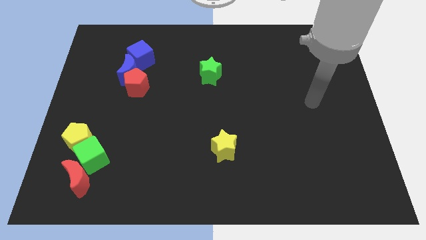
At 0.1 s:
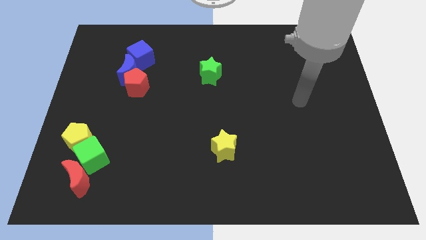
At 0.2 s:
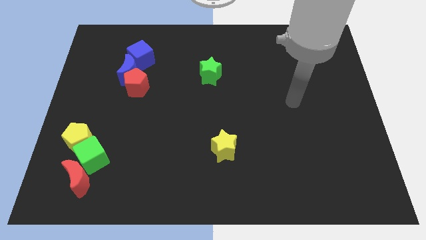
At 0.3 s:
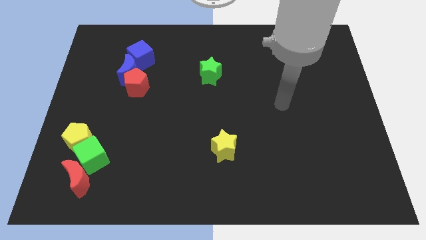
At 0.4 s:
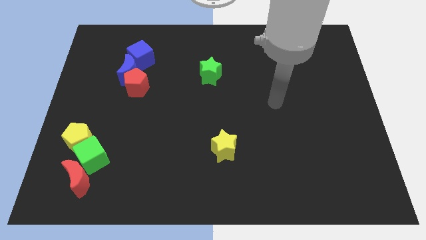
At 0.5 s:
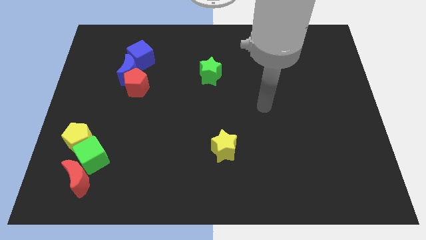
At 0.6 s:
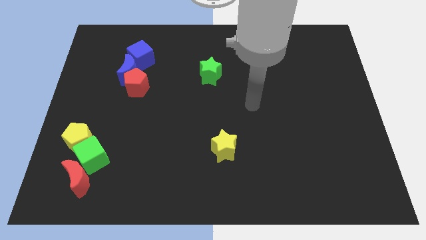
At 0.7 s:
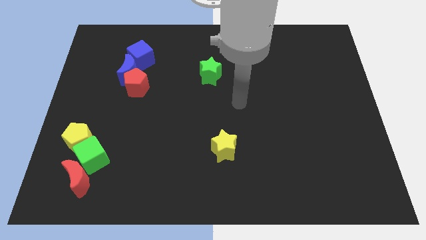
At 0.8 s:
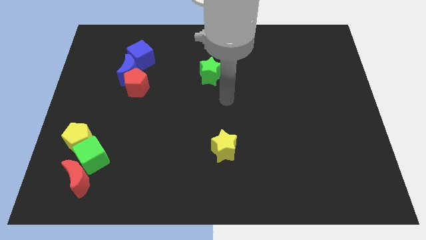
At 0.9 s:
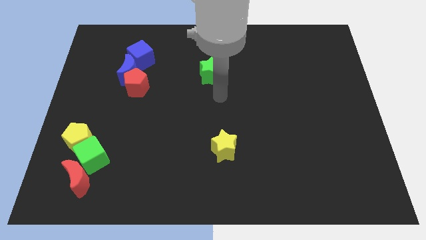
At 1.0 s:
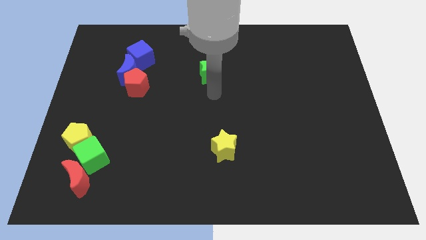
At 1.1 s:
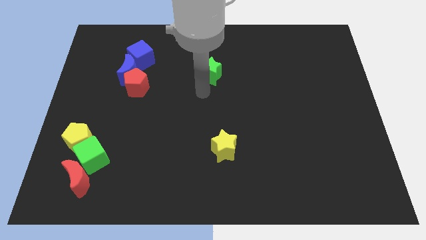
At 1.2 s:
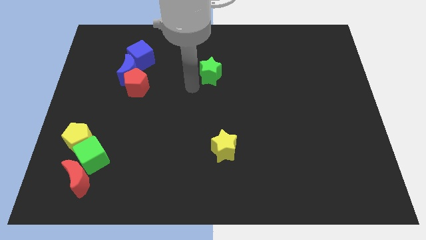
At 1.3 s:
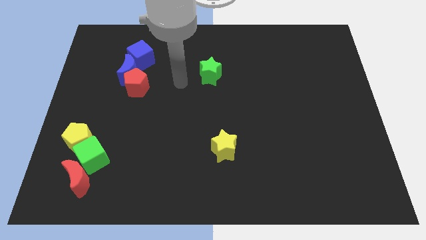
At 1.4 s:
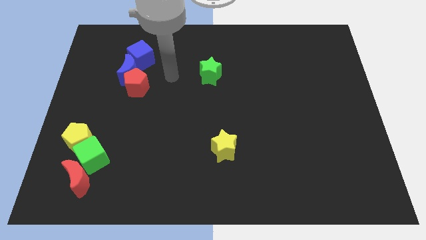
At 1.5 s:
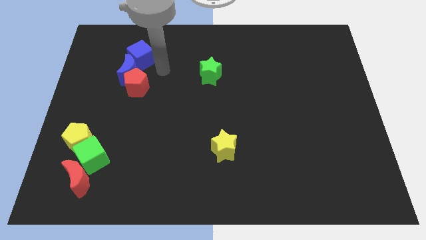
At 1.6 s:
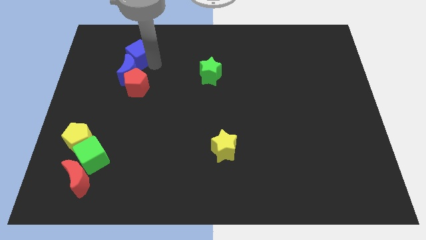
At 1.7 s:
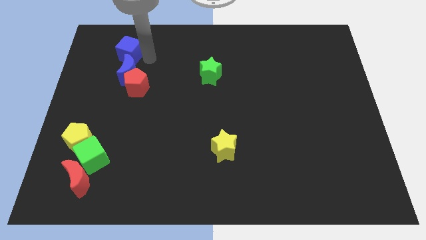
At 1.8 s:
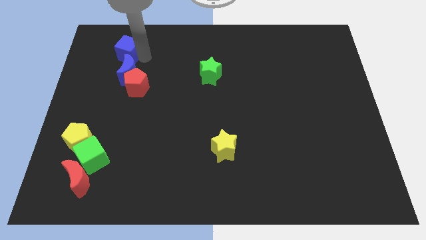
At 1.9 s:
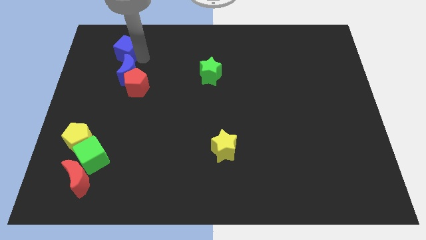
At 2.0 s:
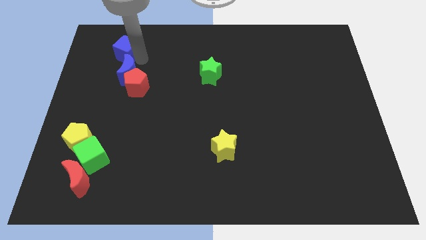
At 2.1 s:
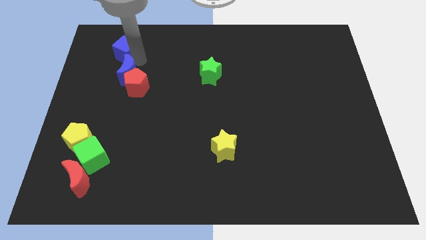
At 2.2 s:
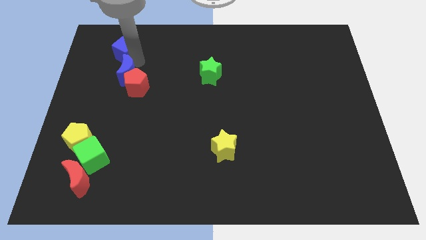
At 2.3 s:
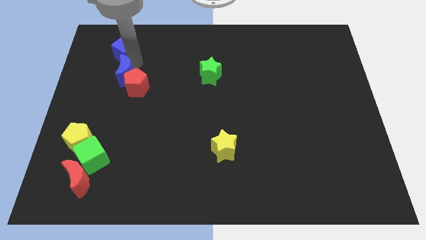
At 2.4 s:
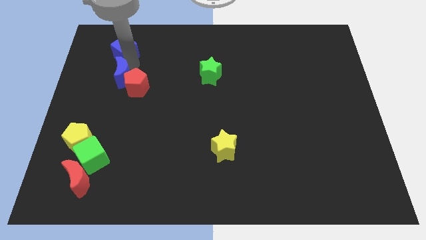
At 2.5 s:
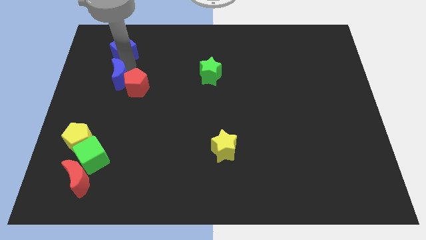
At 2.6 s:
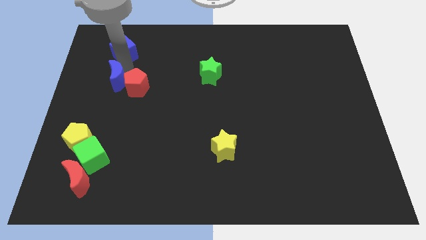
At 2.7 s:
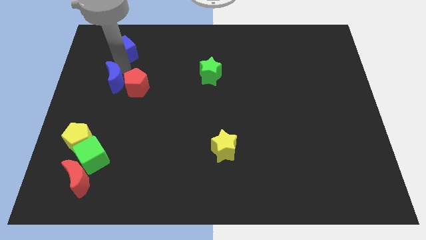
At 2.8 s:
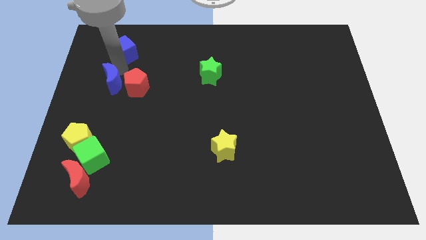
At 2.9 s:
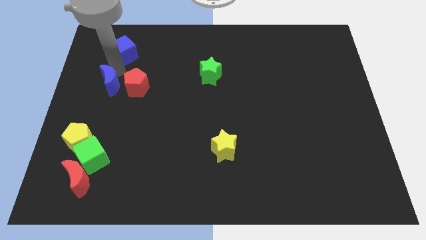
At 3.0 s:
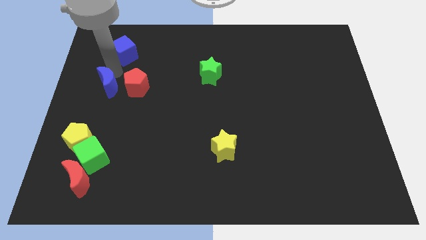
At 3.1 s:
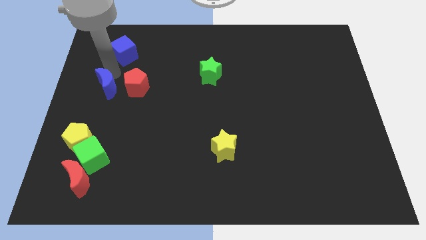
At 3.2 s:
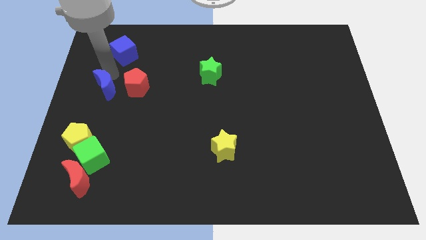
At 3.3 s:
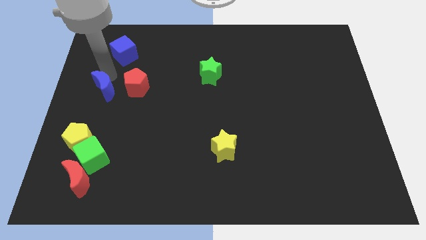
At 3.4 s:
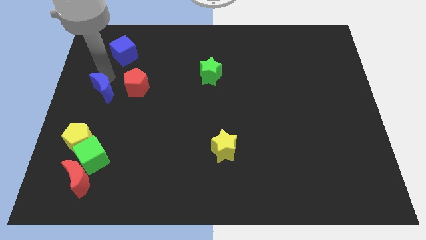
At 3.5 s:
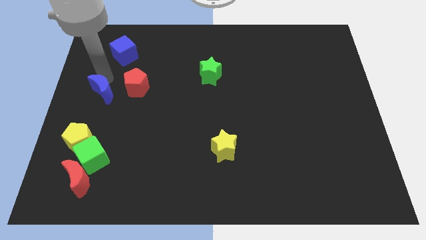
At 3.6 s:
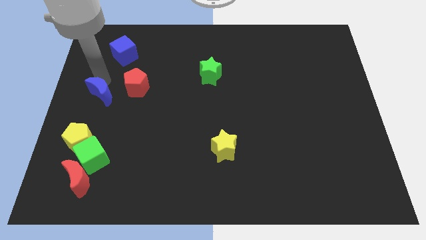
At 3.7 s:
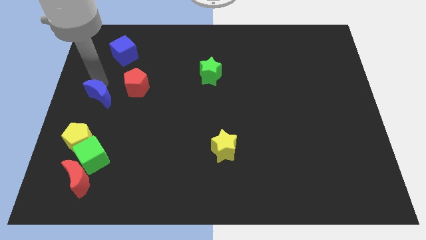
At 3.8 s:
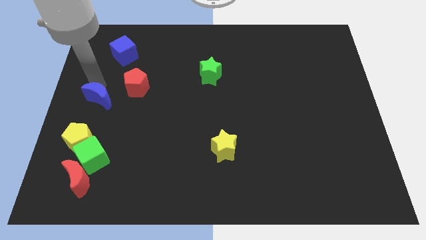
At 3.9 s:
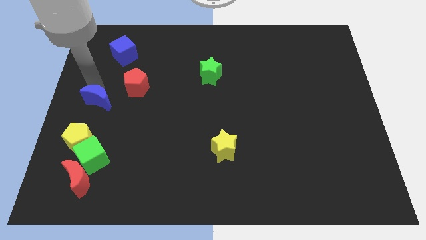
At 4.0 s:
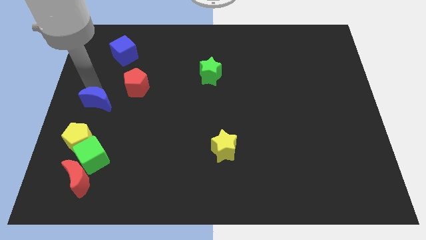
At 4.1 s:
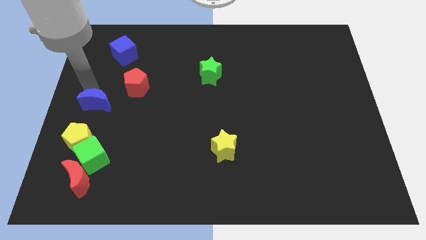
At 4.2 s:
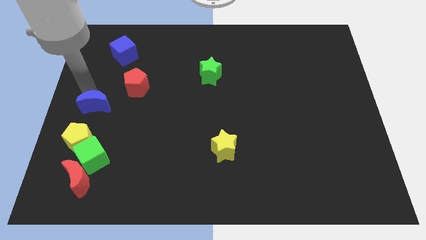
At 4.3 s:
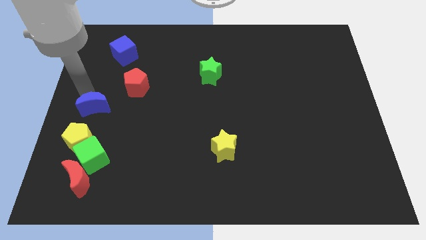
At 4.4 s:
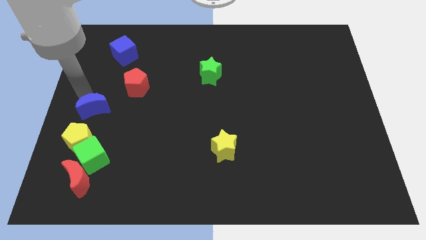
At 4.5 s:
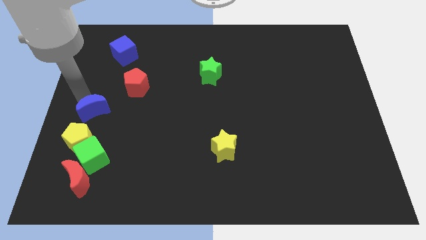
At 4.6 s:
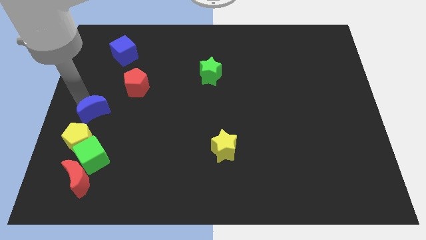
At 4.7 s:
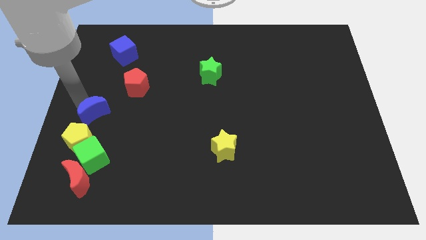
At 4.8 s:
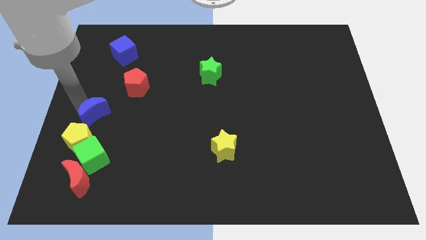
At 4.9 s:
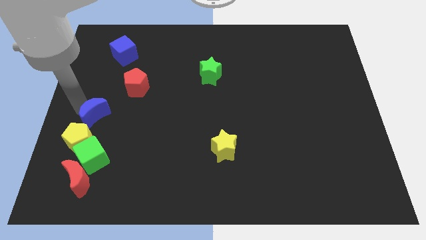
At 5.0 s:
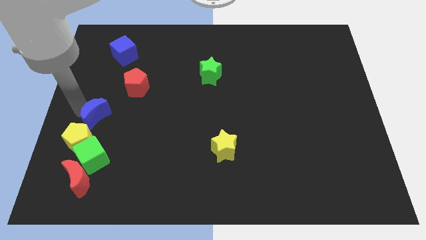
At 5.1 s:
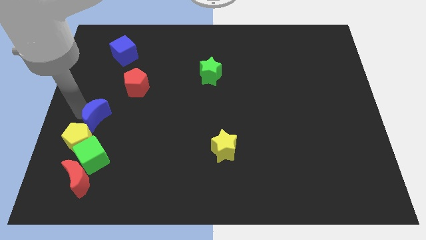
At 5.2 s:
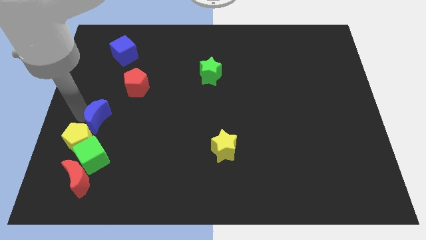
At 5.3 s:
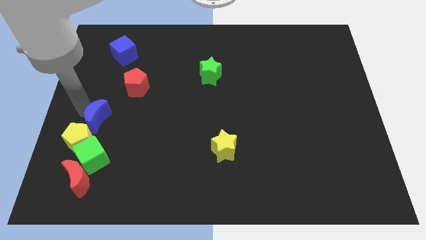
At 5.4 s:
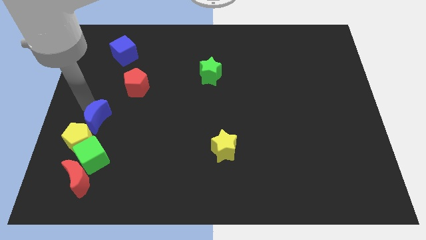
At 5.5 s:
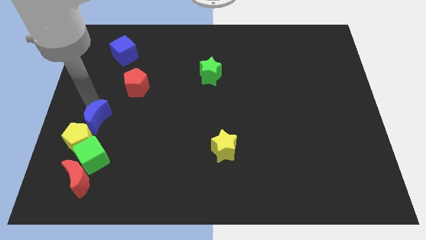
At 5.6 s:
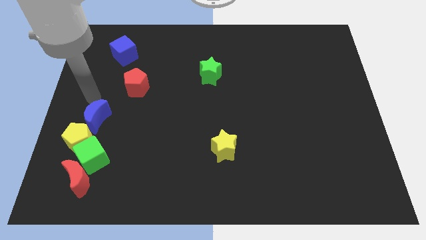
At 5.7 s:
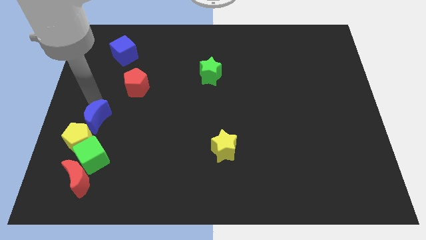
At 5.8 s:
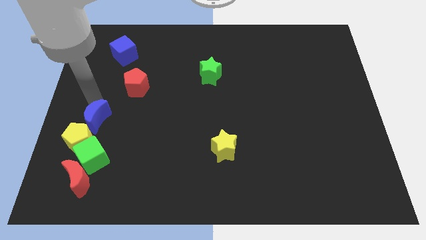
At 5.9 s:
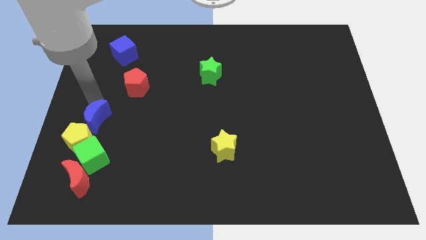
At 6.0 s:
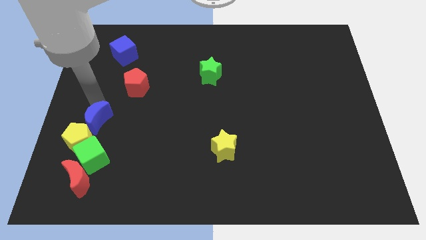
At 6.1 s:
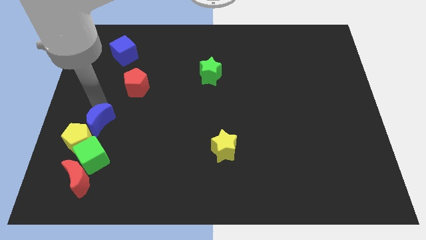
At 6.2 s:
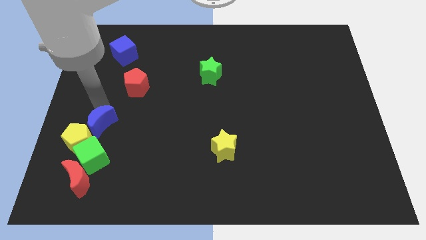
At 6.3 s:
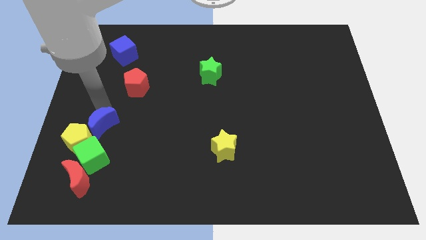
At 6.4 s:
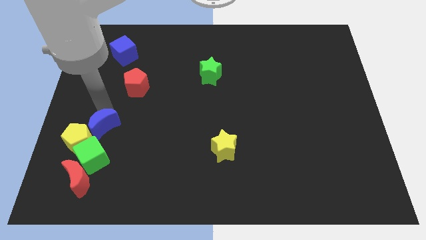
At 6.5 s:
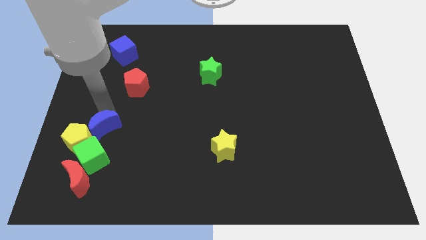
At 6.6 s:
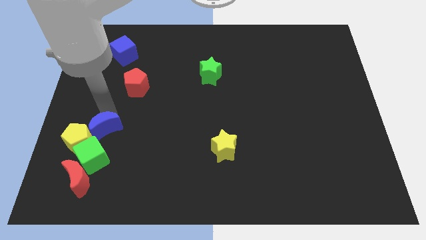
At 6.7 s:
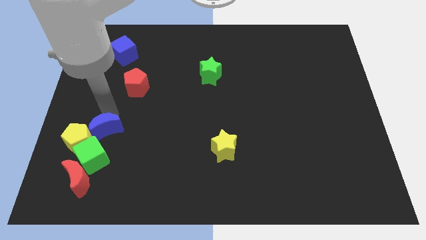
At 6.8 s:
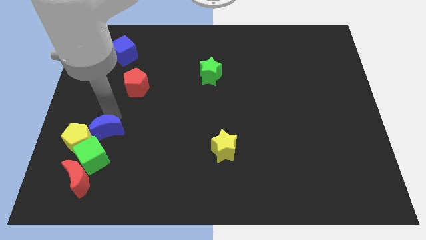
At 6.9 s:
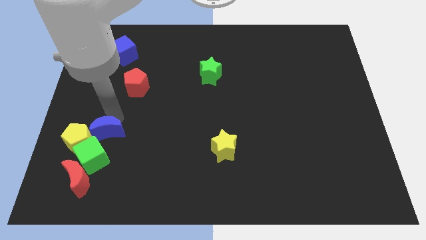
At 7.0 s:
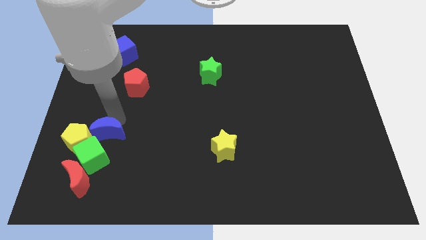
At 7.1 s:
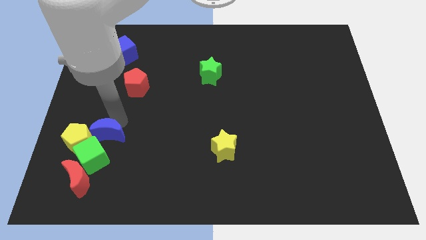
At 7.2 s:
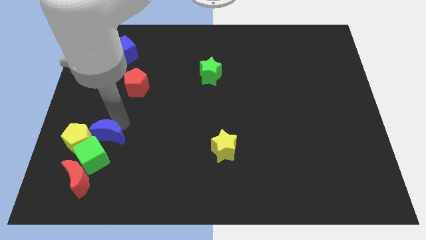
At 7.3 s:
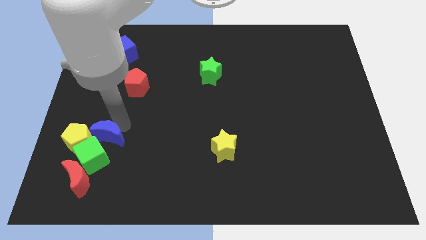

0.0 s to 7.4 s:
push the blue moon towards the green cube
